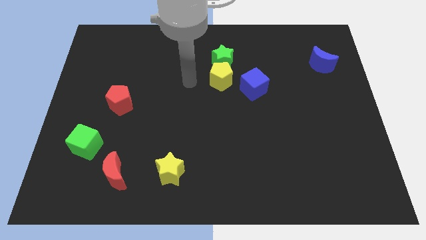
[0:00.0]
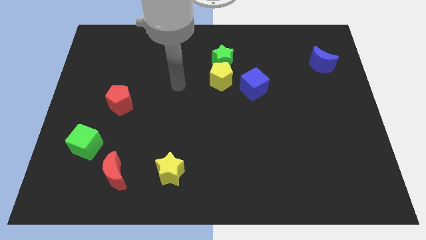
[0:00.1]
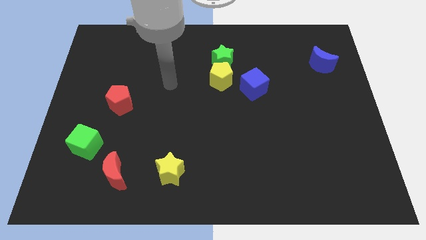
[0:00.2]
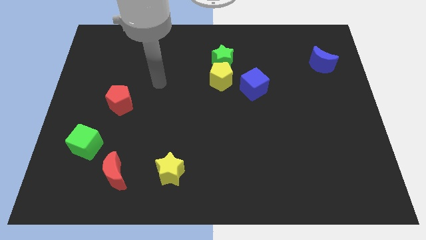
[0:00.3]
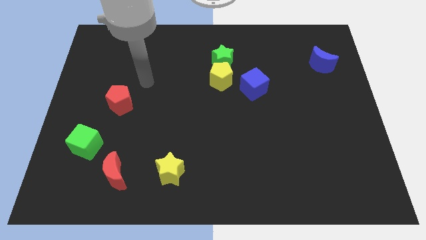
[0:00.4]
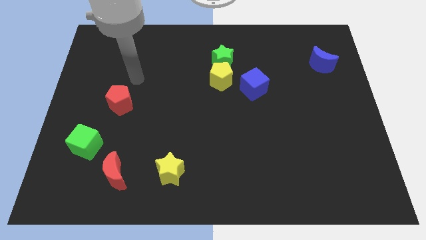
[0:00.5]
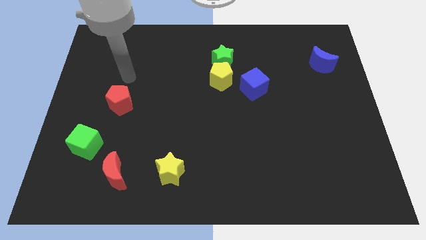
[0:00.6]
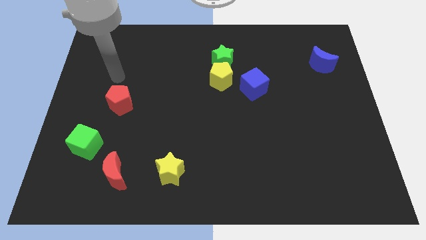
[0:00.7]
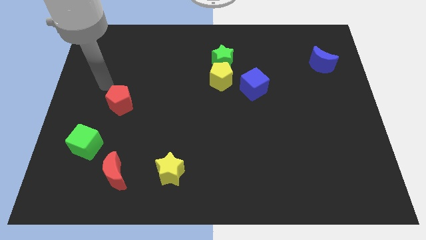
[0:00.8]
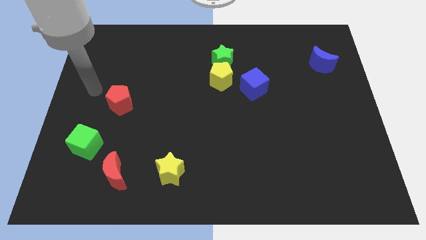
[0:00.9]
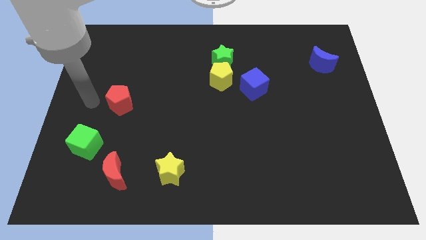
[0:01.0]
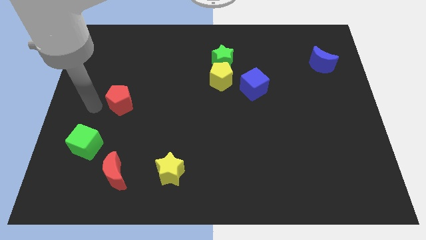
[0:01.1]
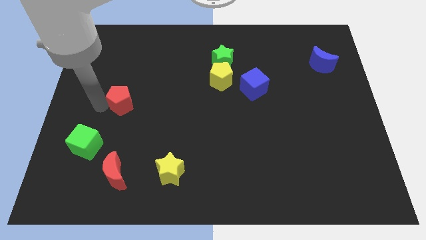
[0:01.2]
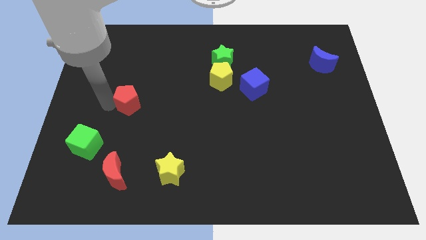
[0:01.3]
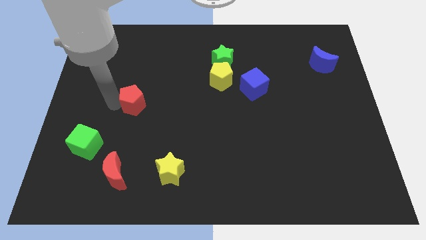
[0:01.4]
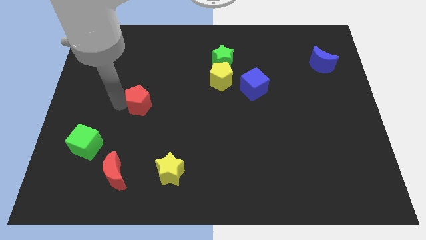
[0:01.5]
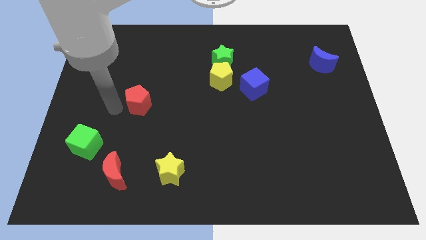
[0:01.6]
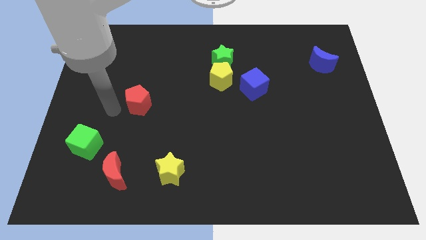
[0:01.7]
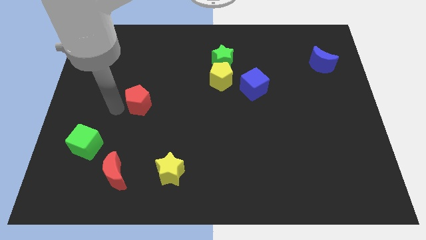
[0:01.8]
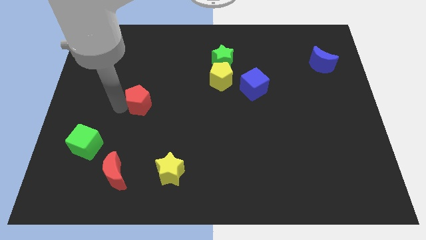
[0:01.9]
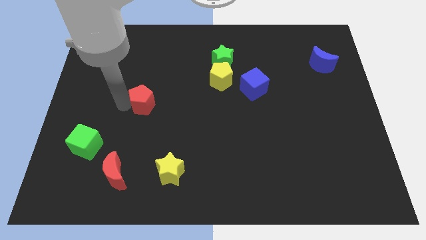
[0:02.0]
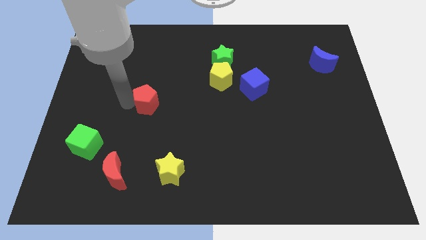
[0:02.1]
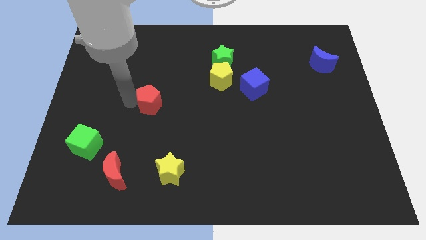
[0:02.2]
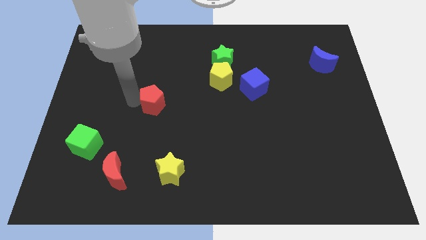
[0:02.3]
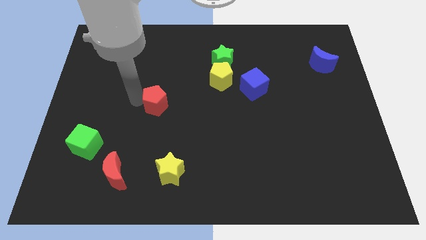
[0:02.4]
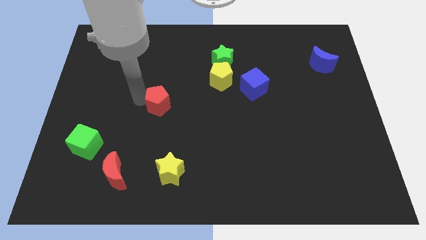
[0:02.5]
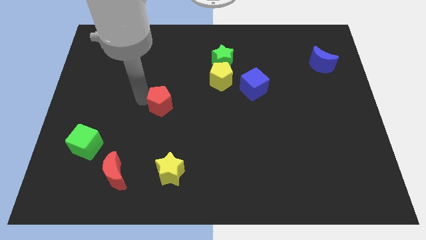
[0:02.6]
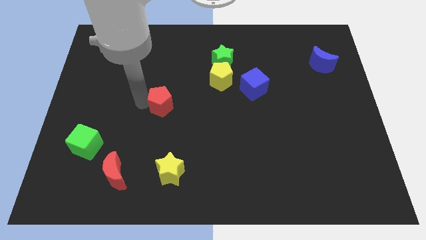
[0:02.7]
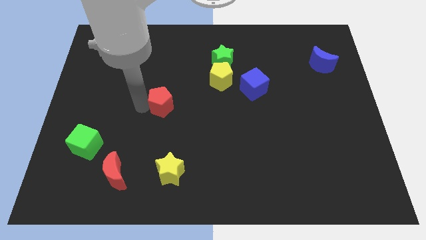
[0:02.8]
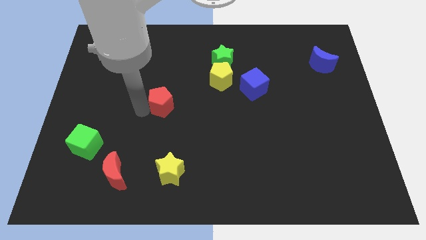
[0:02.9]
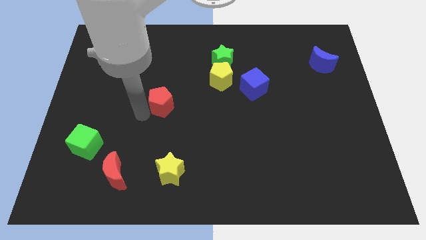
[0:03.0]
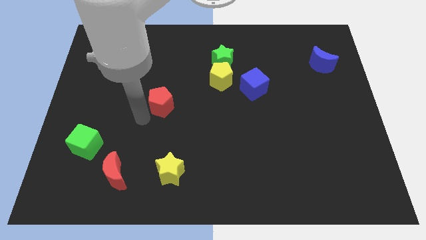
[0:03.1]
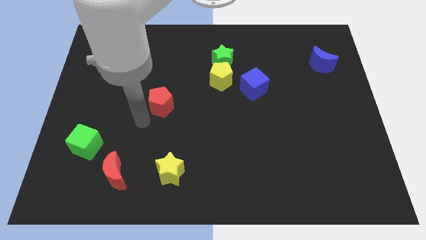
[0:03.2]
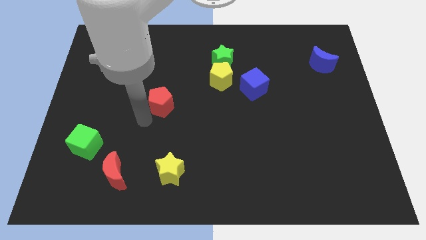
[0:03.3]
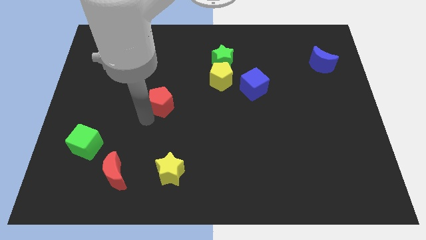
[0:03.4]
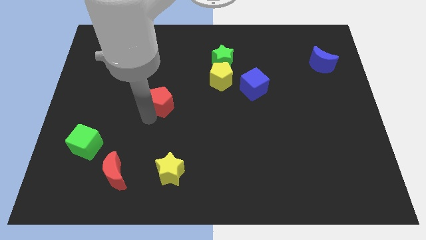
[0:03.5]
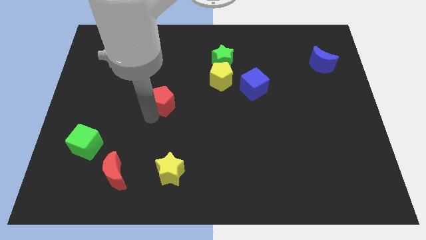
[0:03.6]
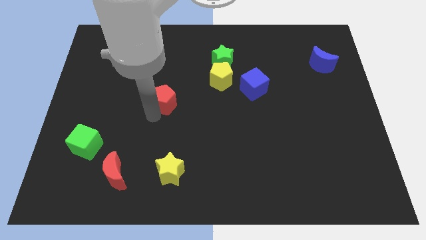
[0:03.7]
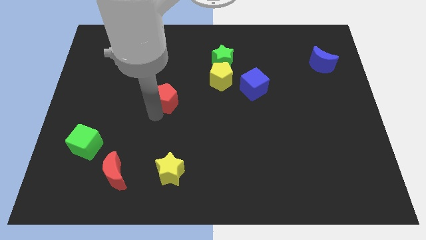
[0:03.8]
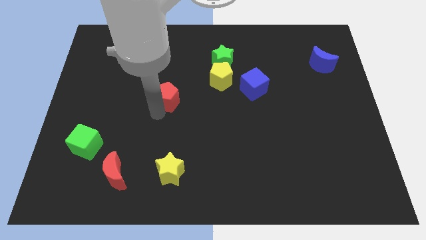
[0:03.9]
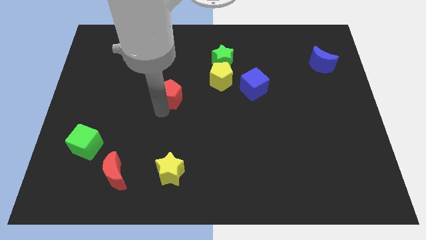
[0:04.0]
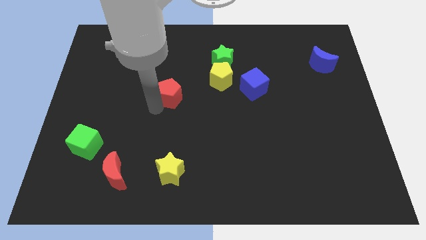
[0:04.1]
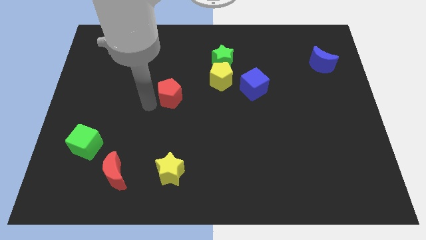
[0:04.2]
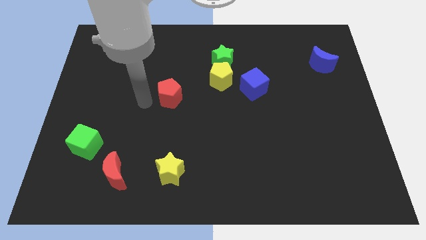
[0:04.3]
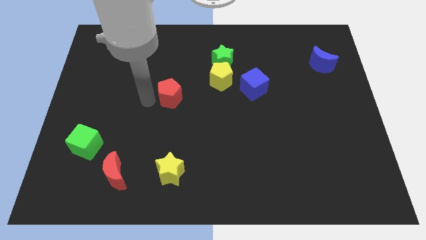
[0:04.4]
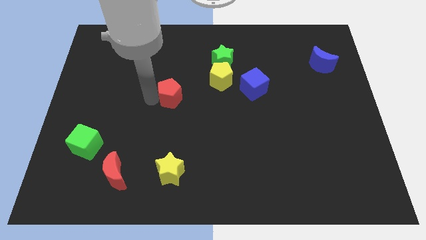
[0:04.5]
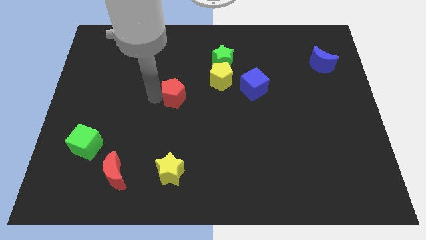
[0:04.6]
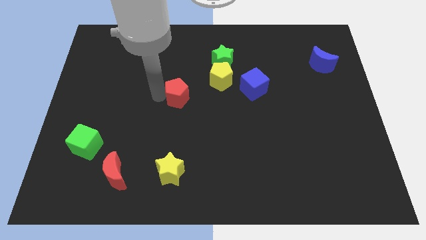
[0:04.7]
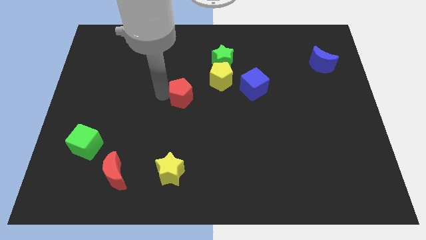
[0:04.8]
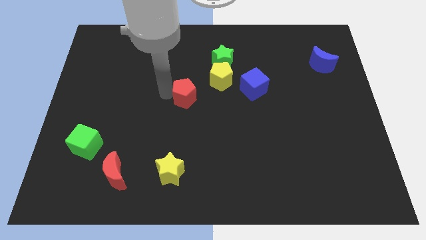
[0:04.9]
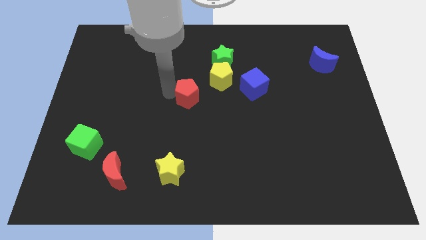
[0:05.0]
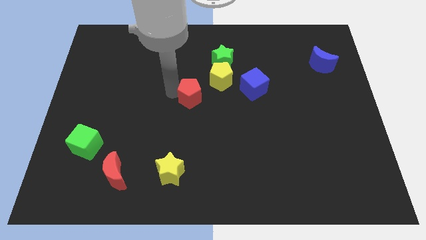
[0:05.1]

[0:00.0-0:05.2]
push the red pentagon to the left of the blue cube

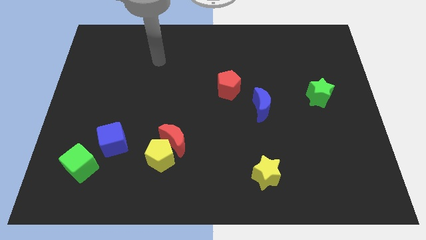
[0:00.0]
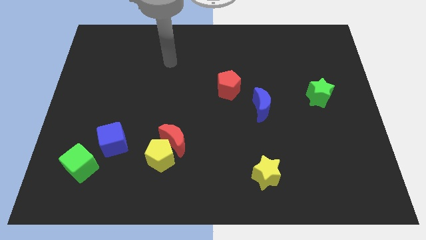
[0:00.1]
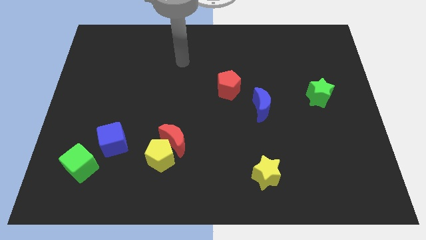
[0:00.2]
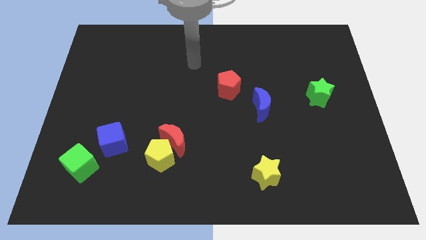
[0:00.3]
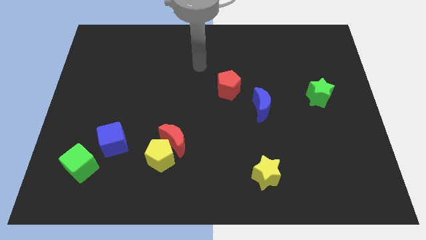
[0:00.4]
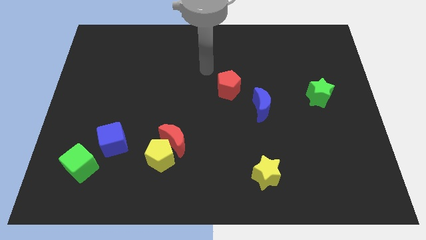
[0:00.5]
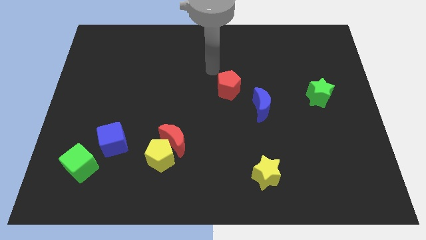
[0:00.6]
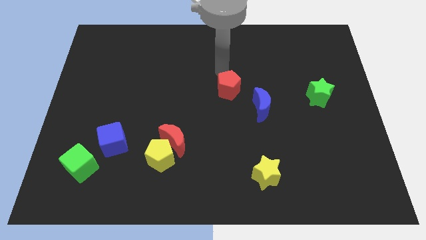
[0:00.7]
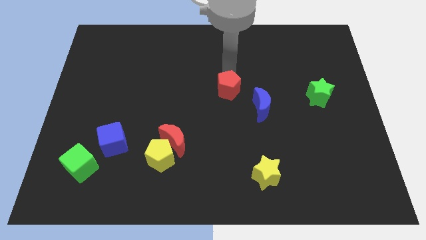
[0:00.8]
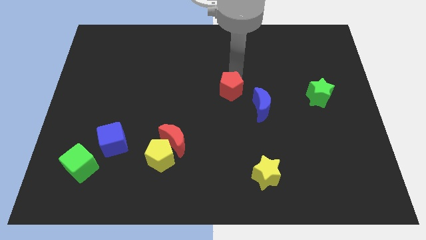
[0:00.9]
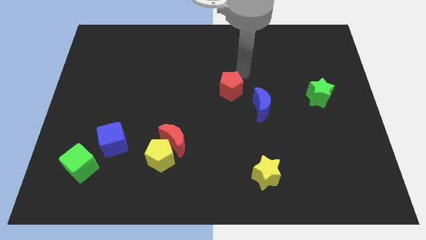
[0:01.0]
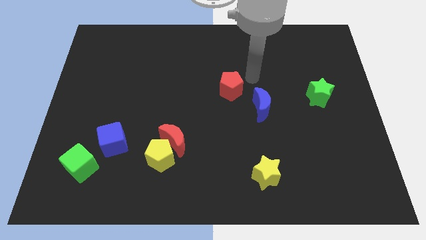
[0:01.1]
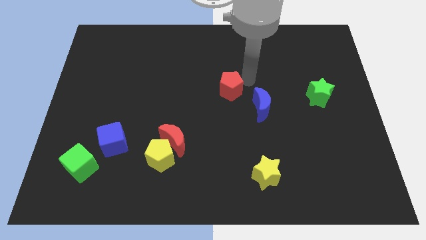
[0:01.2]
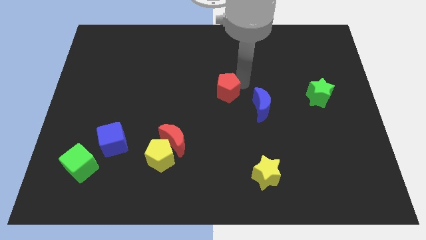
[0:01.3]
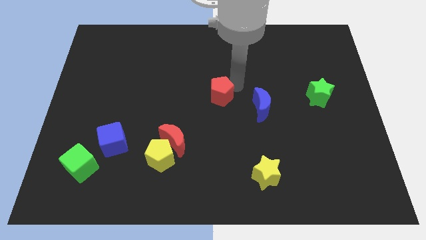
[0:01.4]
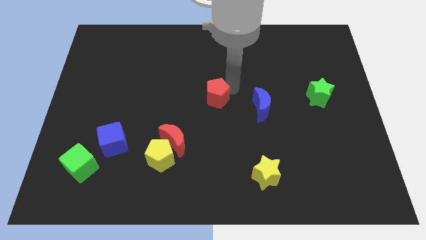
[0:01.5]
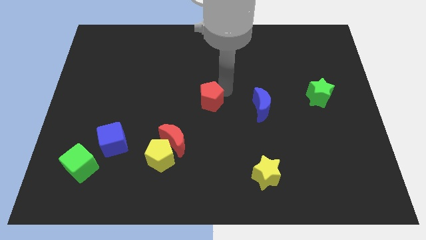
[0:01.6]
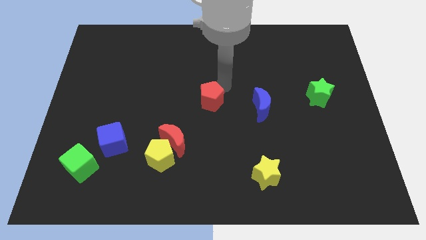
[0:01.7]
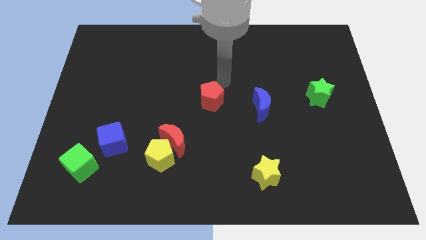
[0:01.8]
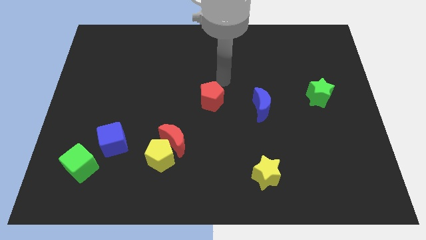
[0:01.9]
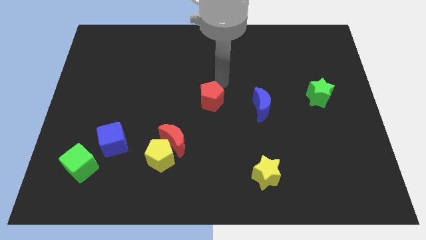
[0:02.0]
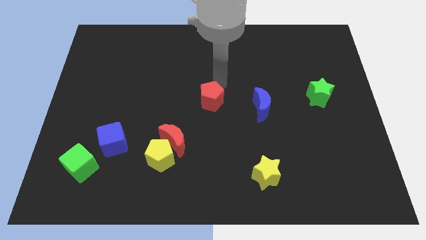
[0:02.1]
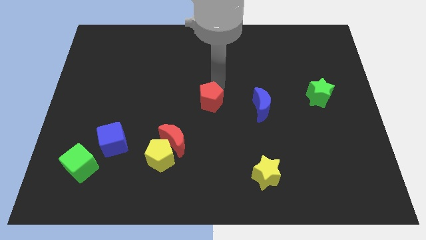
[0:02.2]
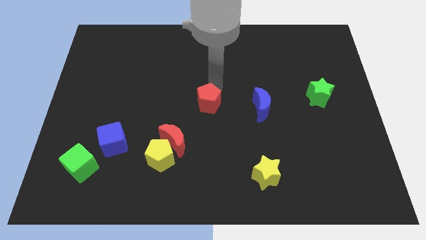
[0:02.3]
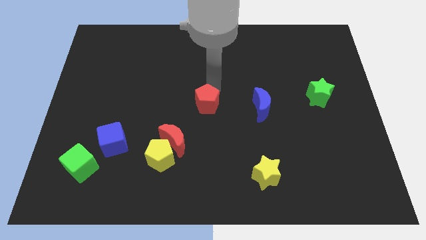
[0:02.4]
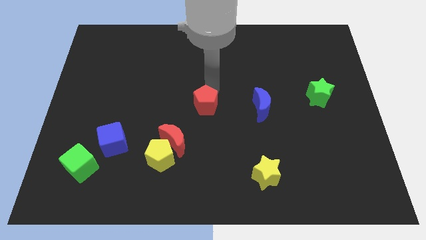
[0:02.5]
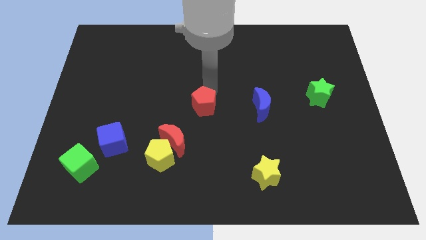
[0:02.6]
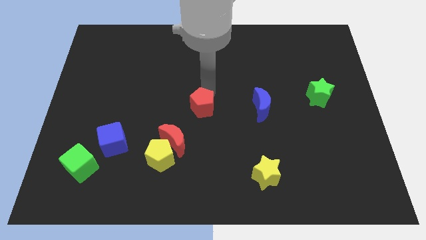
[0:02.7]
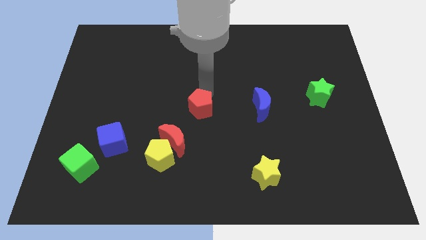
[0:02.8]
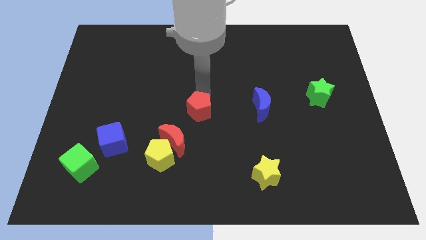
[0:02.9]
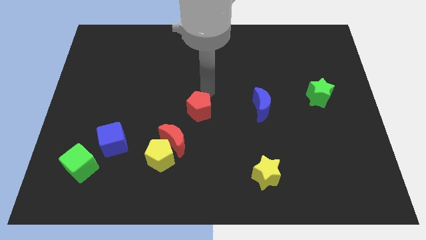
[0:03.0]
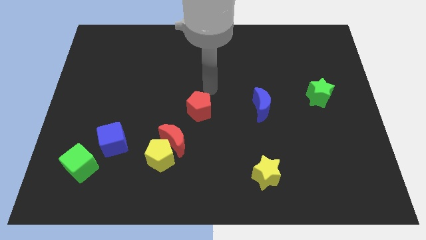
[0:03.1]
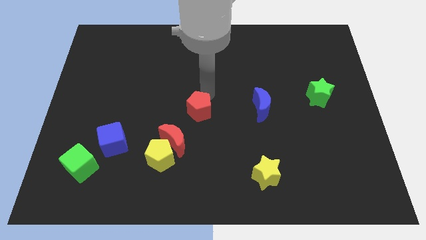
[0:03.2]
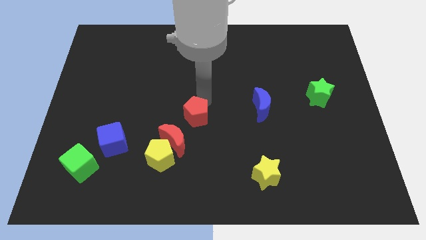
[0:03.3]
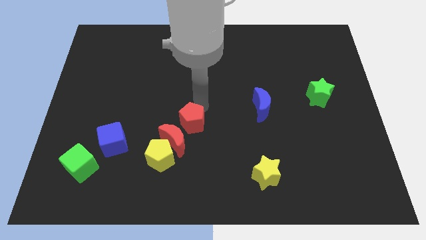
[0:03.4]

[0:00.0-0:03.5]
put the red pentagon to the top right side of the yellow pentagon
